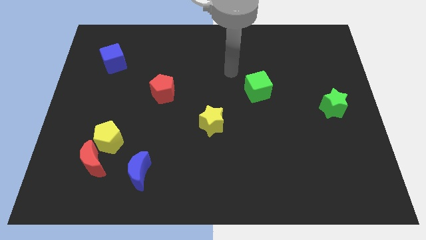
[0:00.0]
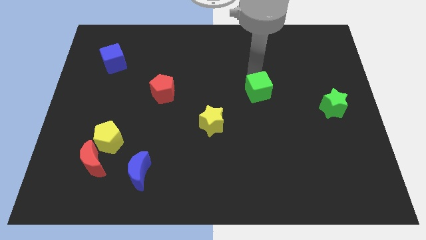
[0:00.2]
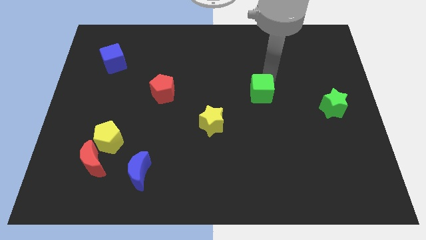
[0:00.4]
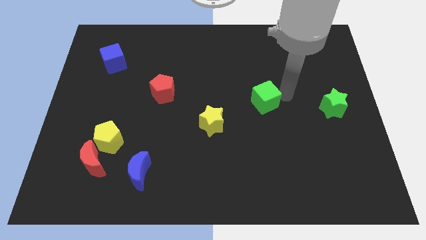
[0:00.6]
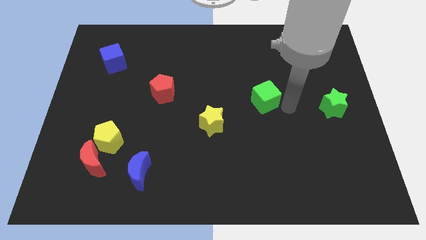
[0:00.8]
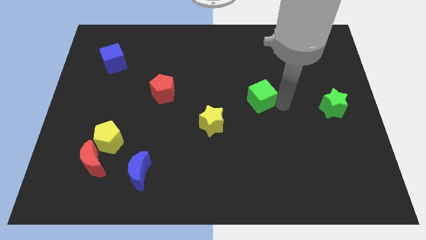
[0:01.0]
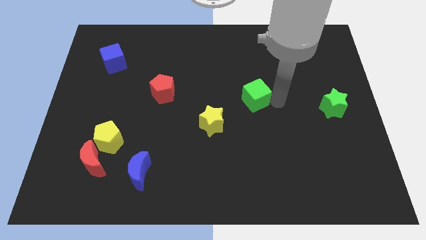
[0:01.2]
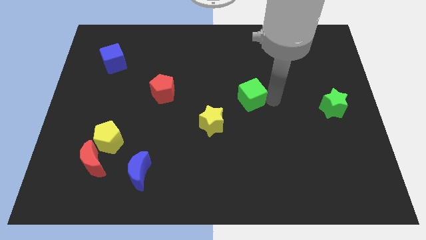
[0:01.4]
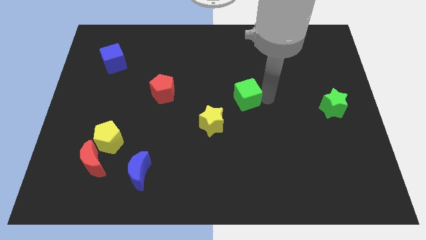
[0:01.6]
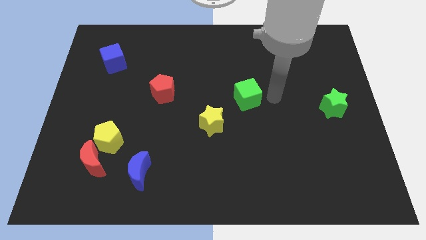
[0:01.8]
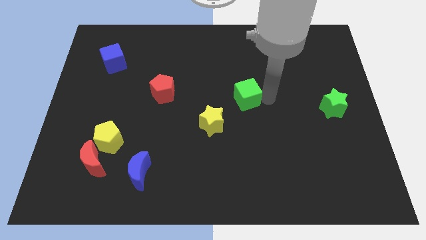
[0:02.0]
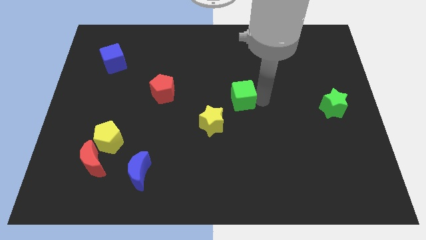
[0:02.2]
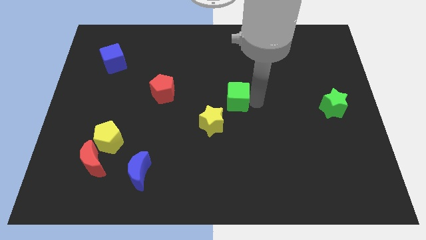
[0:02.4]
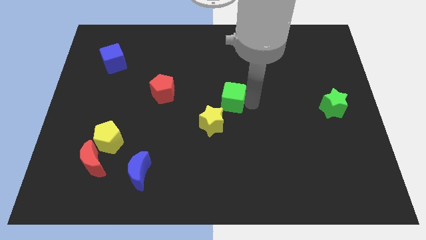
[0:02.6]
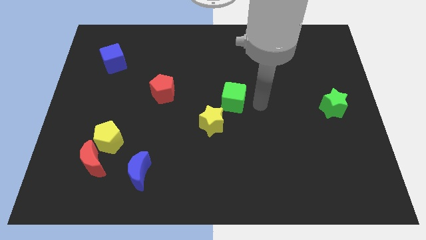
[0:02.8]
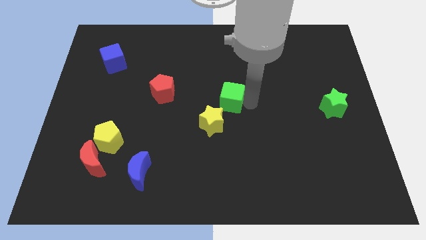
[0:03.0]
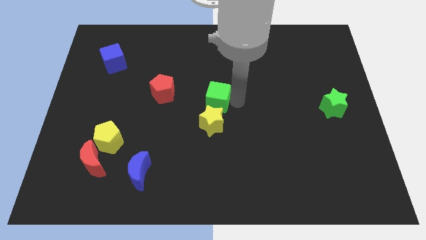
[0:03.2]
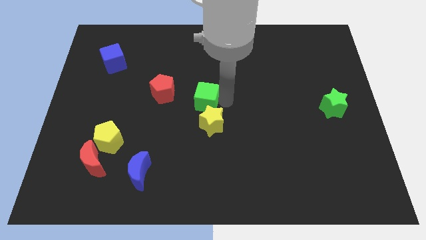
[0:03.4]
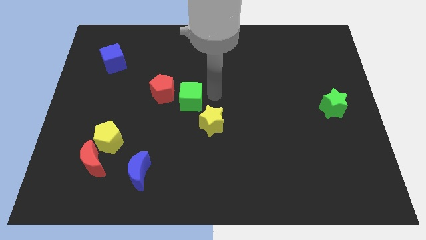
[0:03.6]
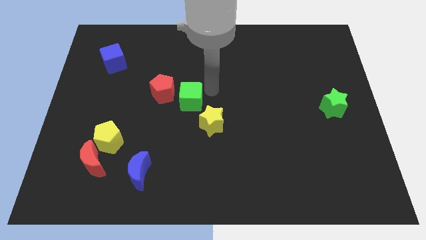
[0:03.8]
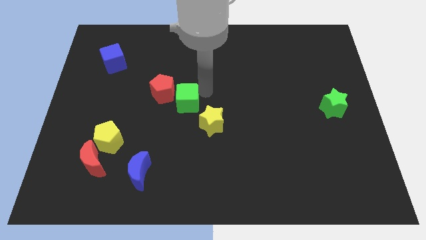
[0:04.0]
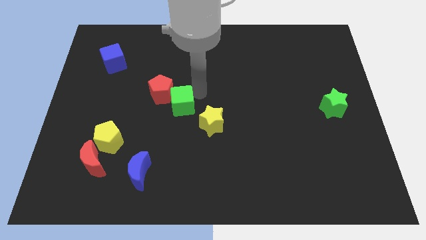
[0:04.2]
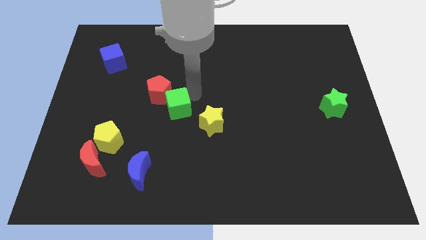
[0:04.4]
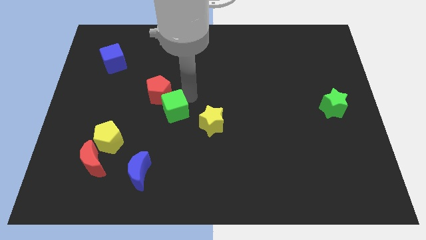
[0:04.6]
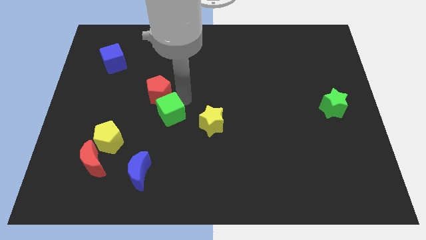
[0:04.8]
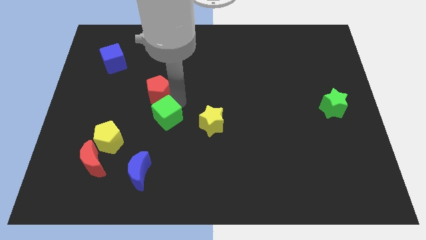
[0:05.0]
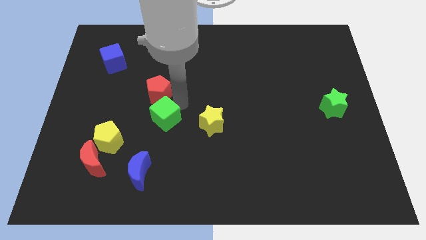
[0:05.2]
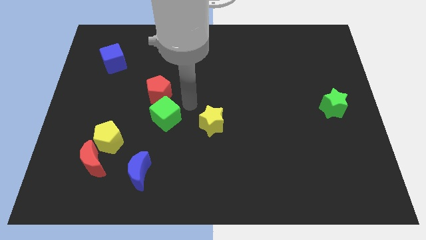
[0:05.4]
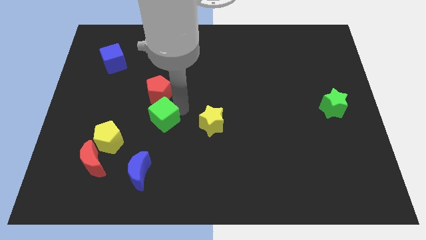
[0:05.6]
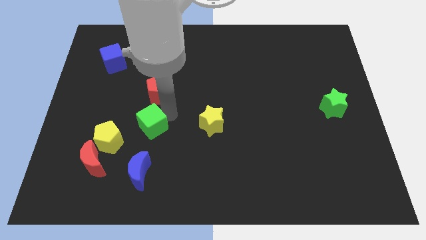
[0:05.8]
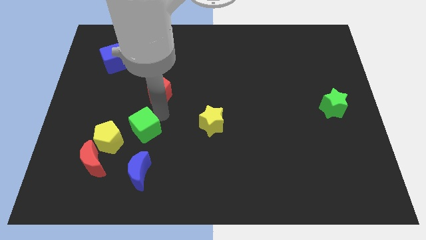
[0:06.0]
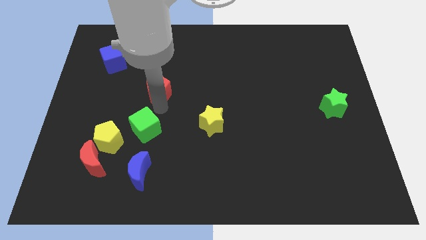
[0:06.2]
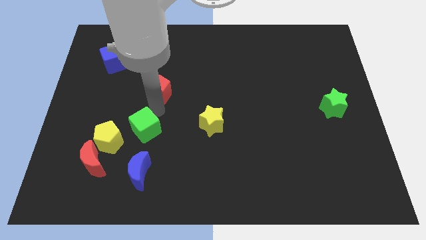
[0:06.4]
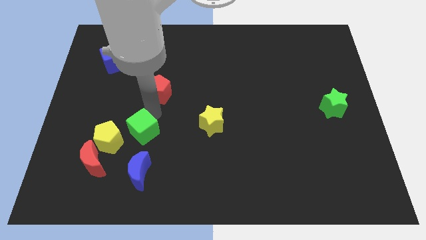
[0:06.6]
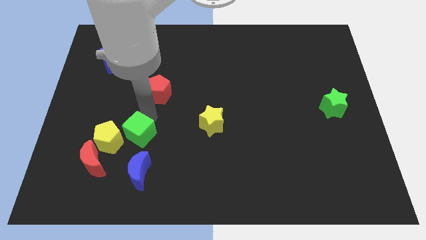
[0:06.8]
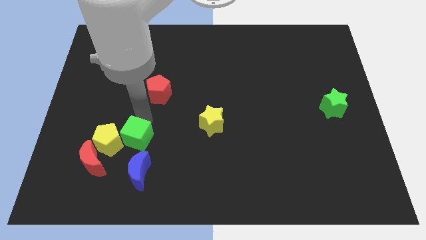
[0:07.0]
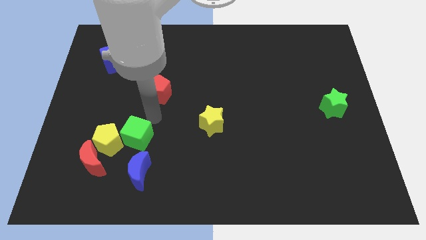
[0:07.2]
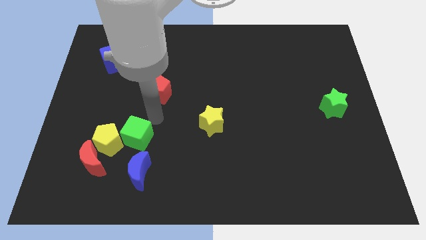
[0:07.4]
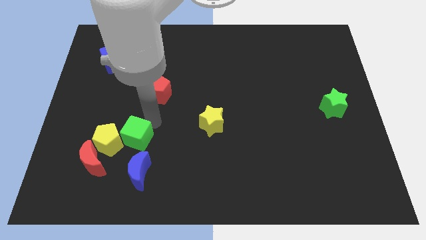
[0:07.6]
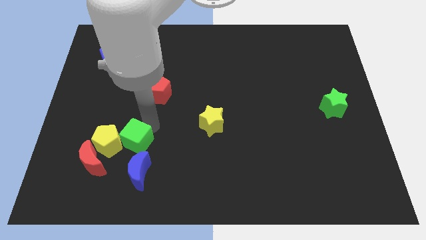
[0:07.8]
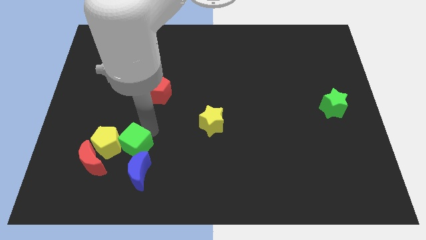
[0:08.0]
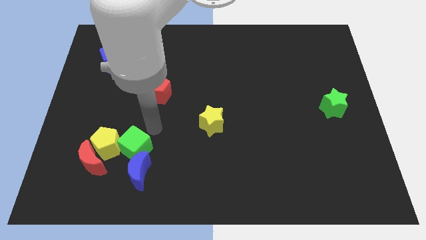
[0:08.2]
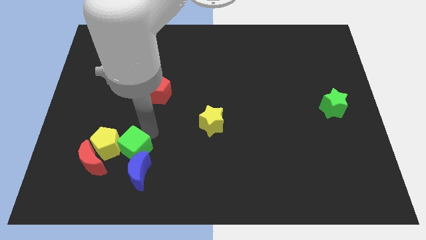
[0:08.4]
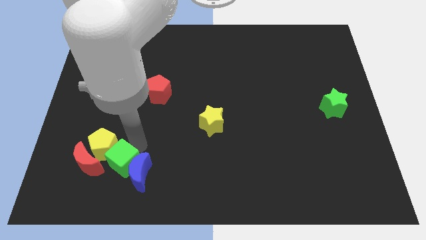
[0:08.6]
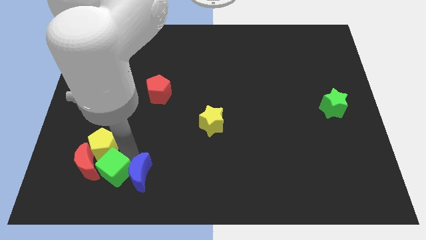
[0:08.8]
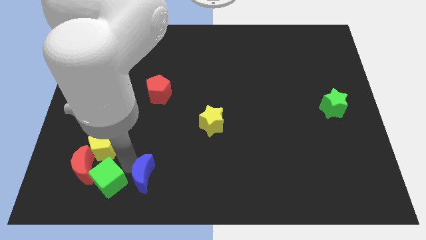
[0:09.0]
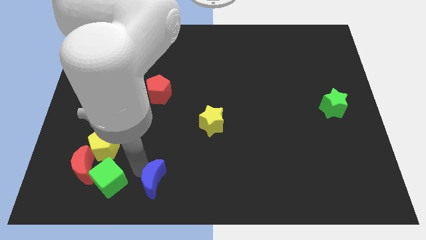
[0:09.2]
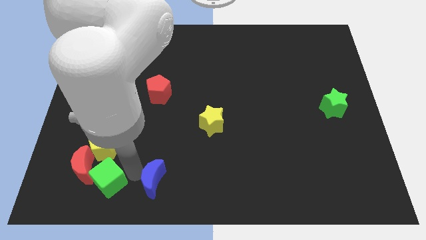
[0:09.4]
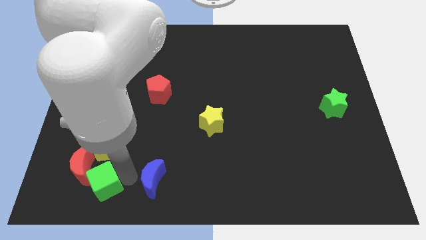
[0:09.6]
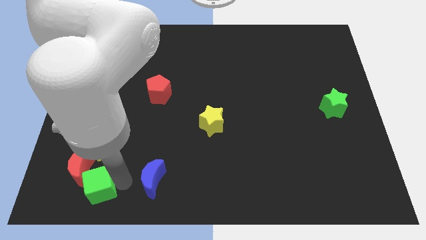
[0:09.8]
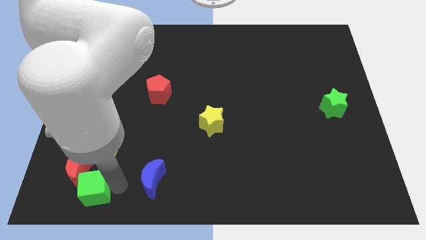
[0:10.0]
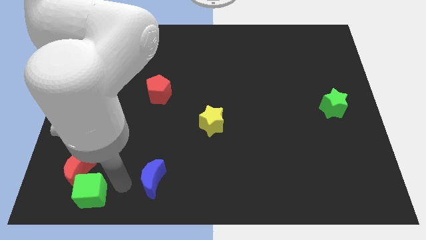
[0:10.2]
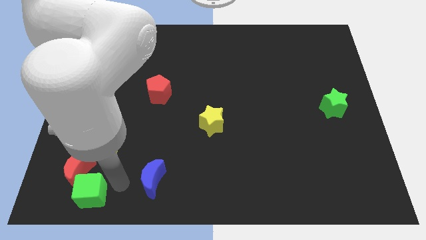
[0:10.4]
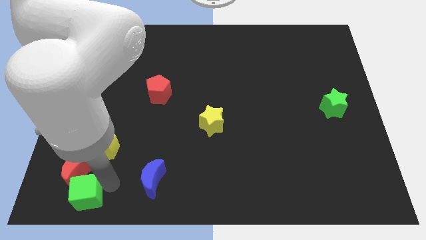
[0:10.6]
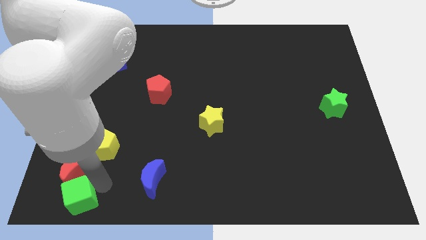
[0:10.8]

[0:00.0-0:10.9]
push the green cube to the bottom left of the board
